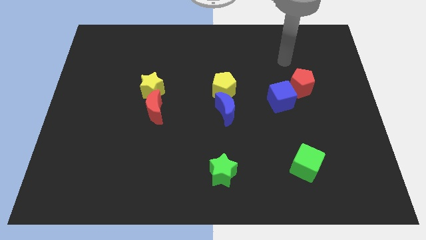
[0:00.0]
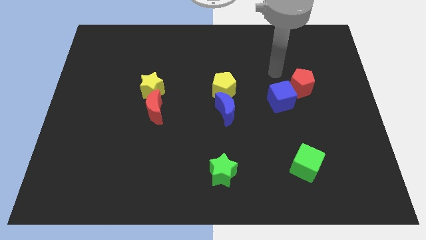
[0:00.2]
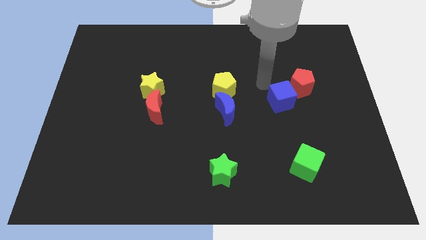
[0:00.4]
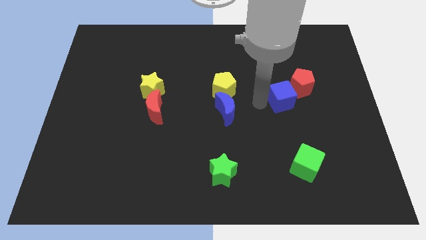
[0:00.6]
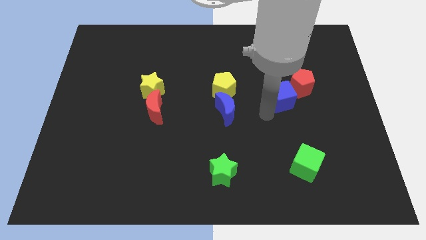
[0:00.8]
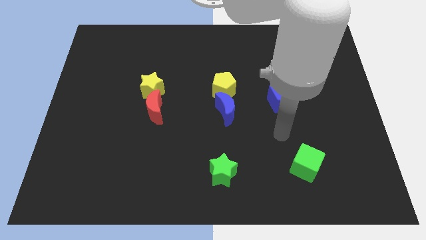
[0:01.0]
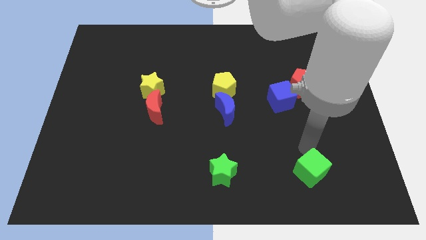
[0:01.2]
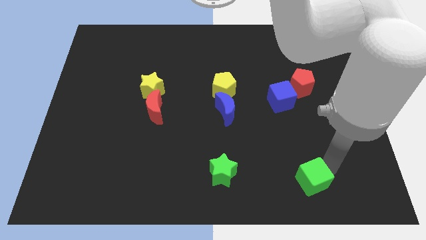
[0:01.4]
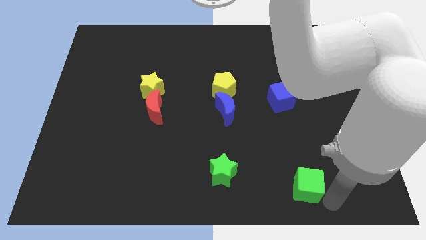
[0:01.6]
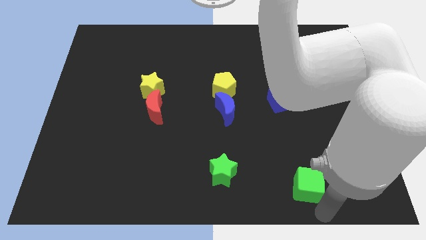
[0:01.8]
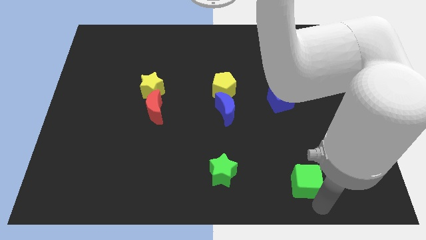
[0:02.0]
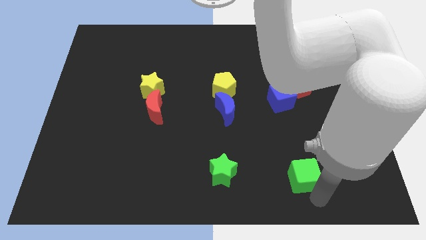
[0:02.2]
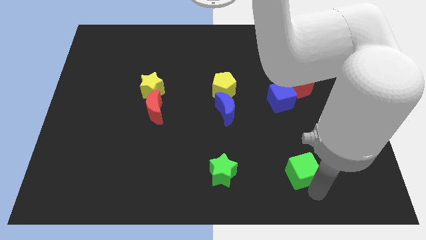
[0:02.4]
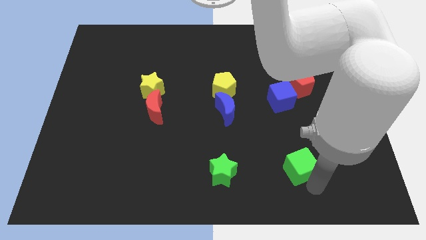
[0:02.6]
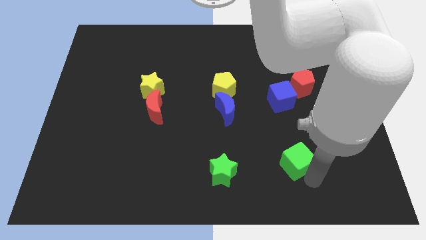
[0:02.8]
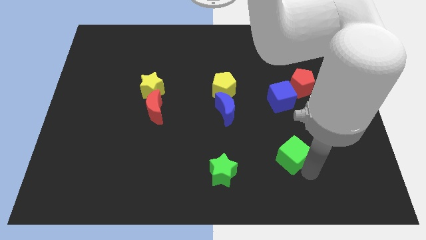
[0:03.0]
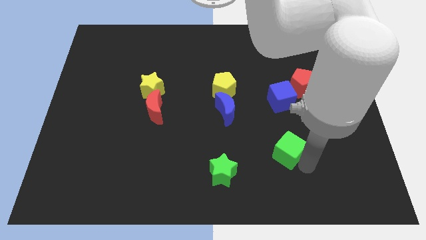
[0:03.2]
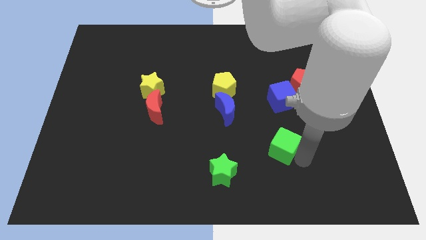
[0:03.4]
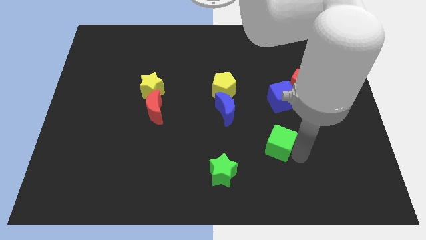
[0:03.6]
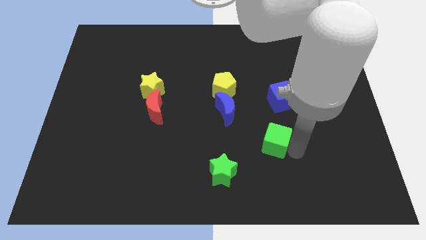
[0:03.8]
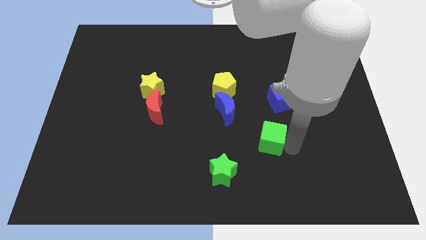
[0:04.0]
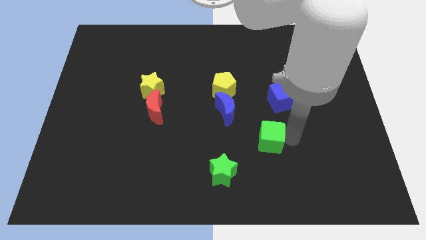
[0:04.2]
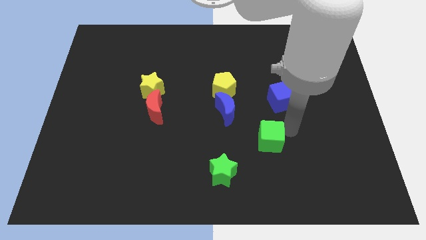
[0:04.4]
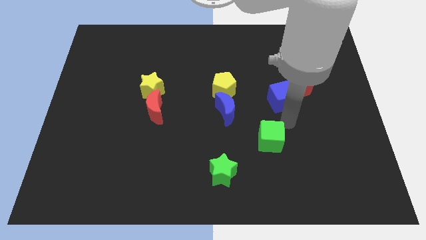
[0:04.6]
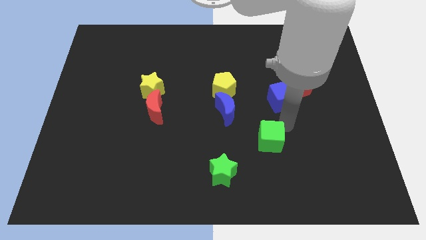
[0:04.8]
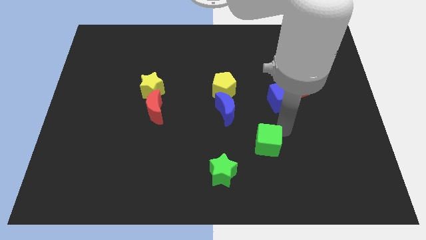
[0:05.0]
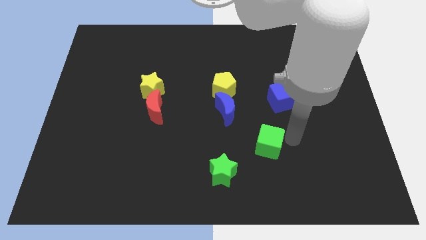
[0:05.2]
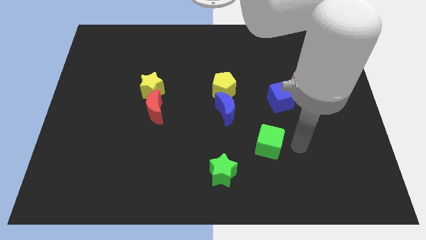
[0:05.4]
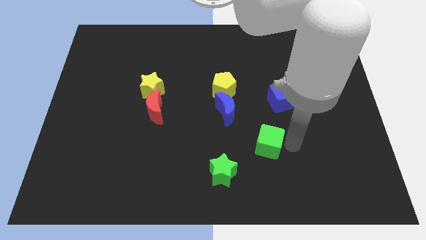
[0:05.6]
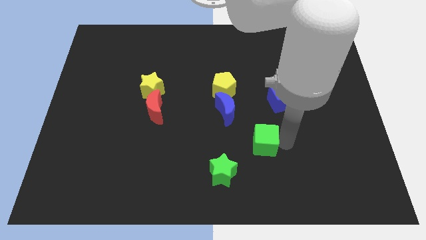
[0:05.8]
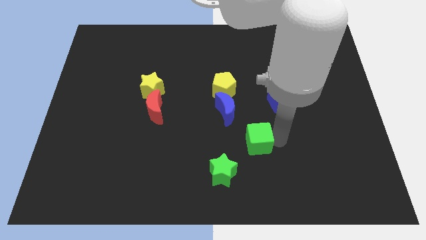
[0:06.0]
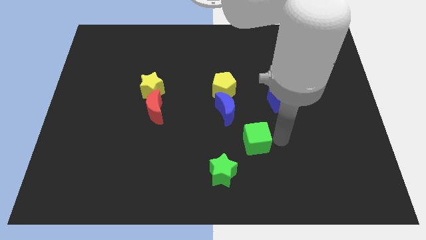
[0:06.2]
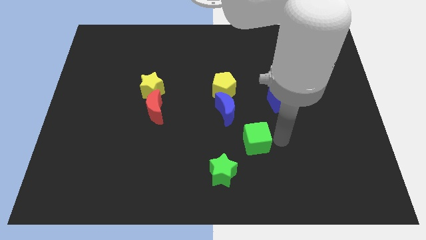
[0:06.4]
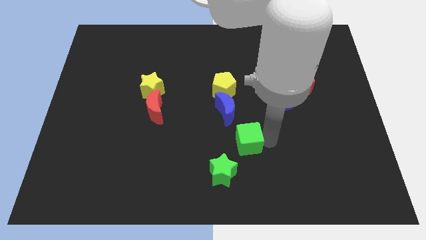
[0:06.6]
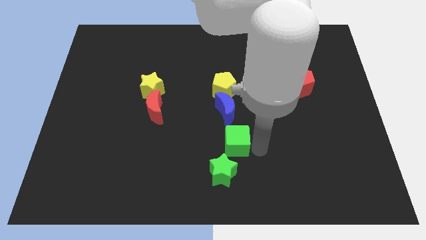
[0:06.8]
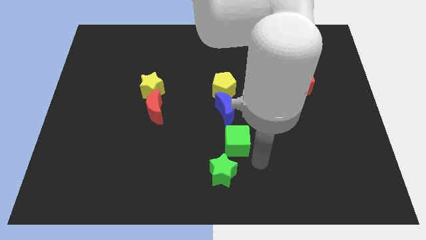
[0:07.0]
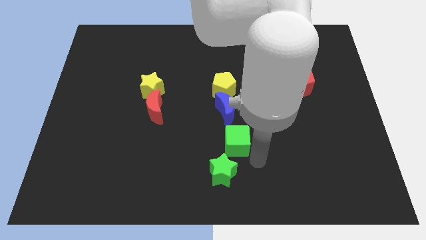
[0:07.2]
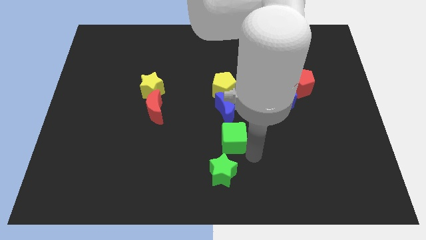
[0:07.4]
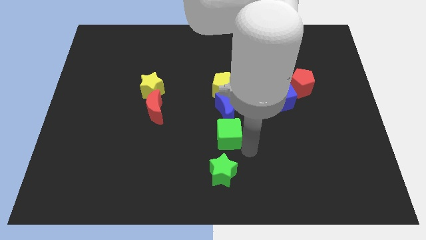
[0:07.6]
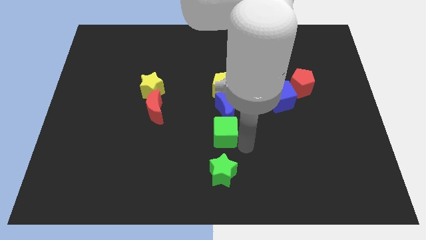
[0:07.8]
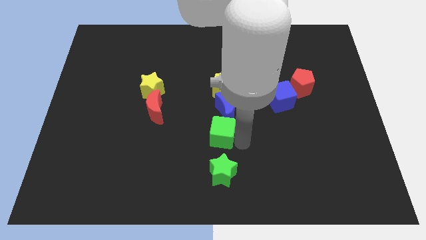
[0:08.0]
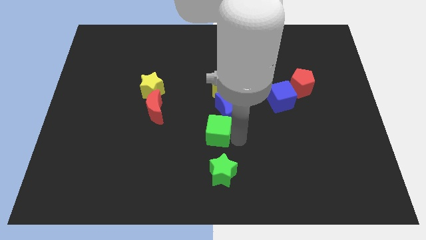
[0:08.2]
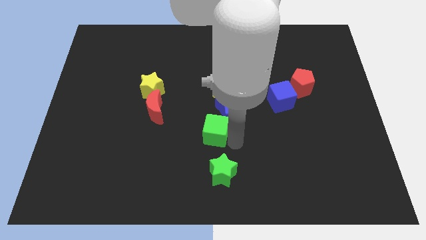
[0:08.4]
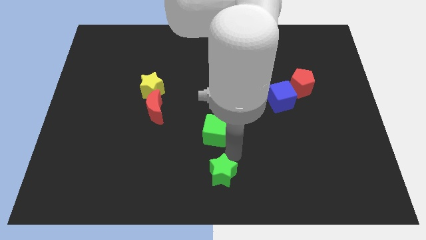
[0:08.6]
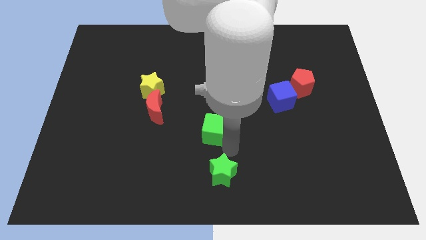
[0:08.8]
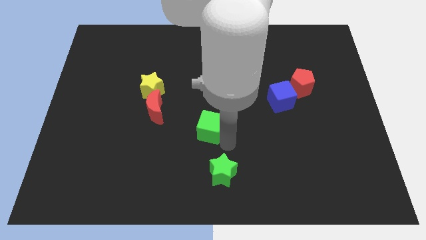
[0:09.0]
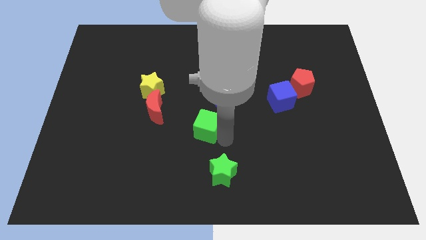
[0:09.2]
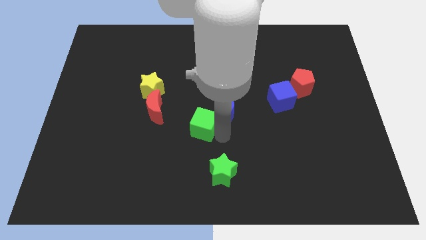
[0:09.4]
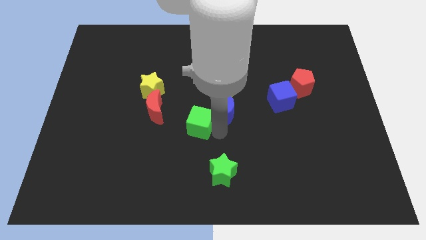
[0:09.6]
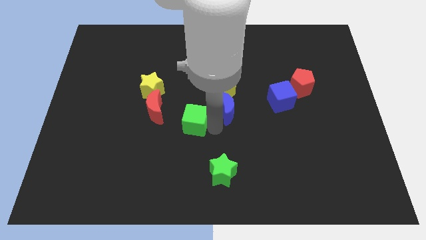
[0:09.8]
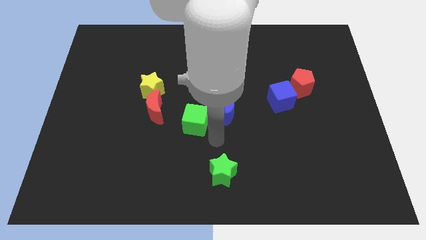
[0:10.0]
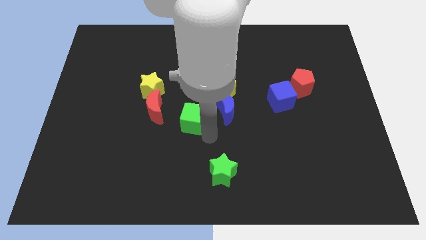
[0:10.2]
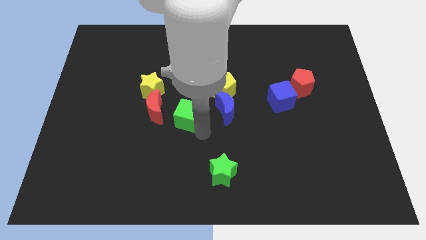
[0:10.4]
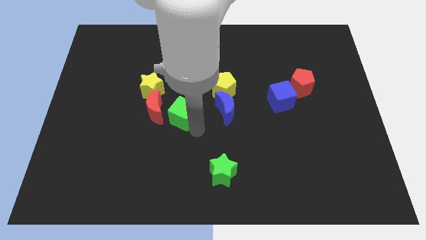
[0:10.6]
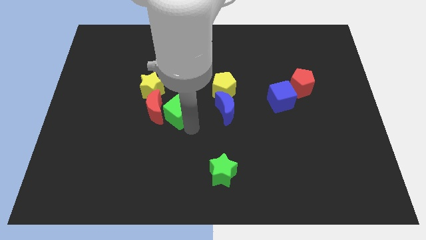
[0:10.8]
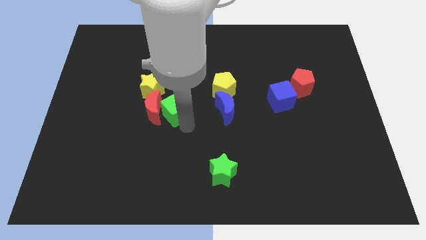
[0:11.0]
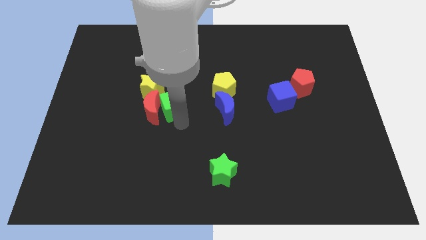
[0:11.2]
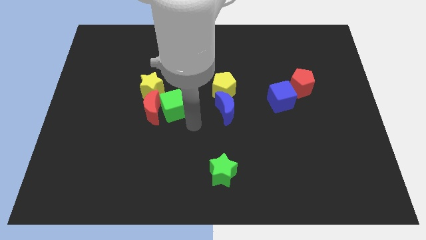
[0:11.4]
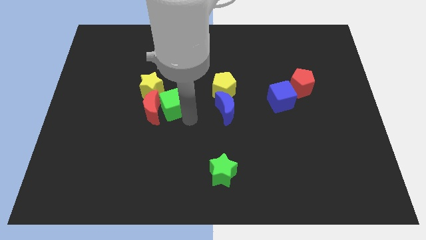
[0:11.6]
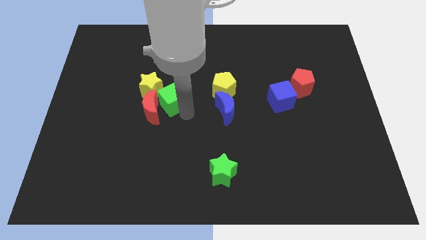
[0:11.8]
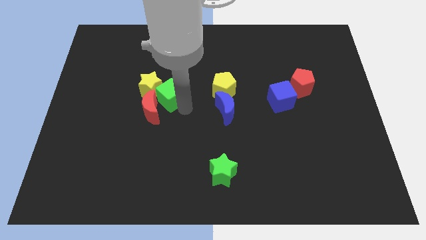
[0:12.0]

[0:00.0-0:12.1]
push the green cube close to the yellow star

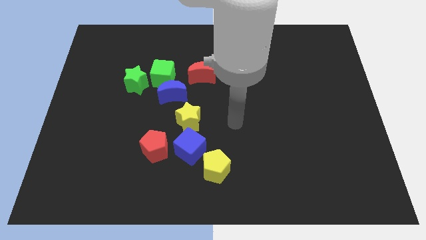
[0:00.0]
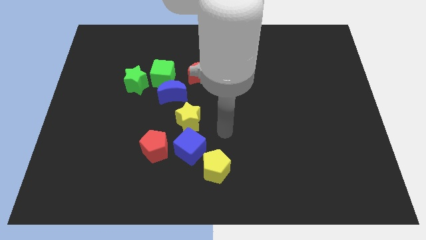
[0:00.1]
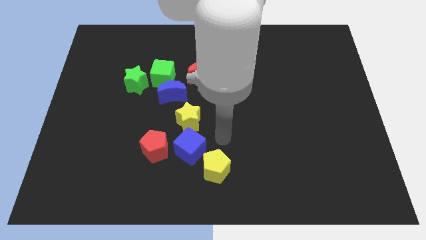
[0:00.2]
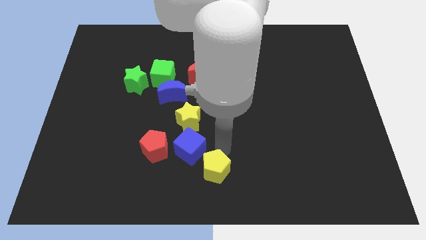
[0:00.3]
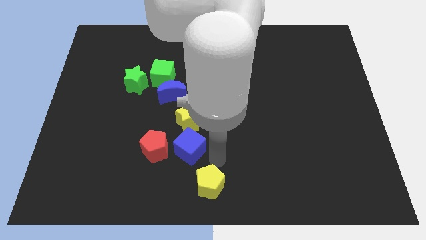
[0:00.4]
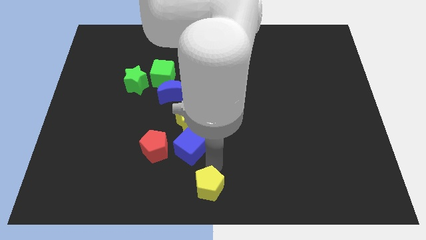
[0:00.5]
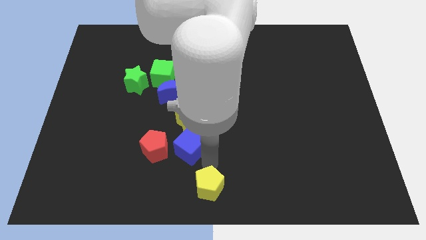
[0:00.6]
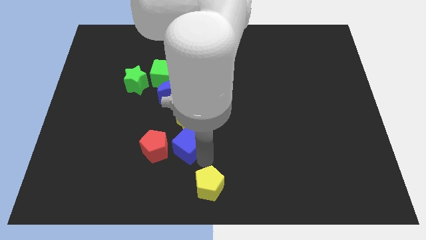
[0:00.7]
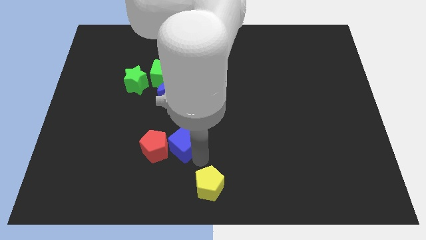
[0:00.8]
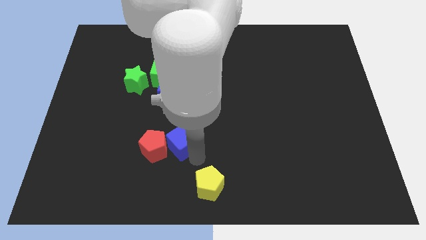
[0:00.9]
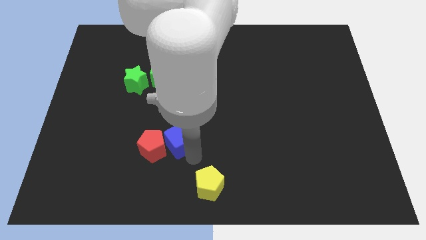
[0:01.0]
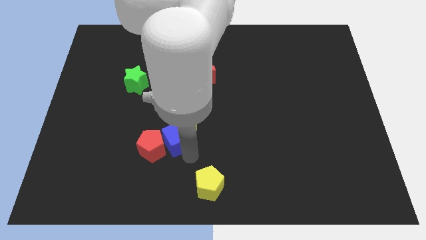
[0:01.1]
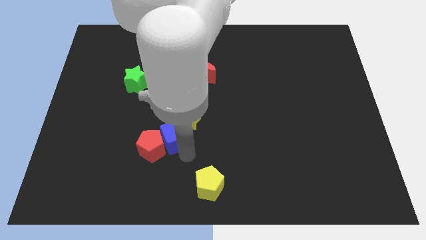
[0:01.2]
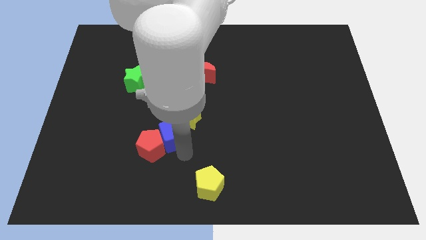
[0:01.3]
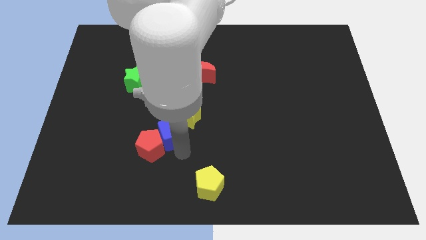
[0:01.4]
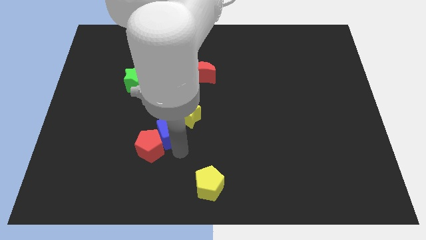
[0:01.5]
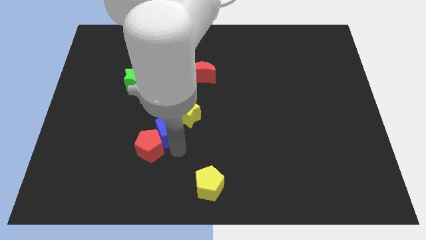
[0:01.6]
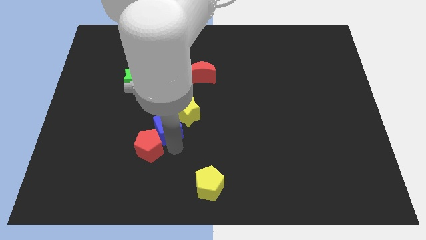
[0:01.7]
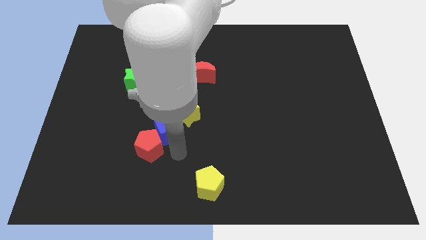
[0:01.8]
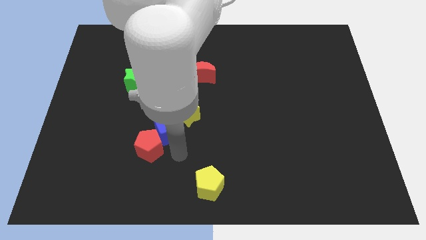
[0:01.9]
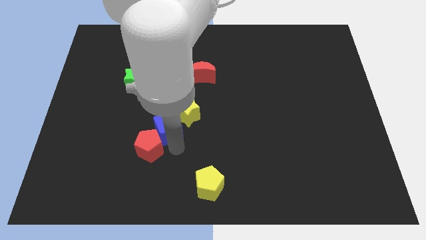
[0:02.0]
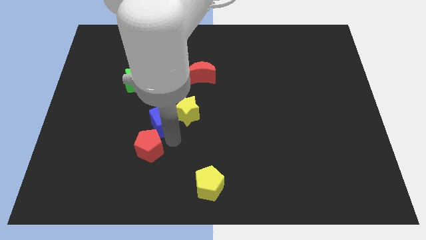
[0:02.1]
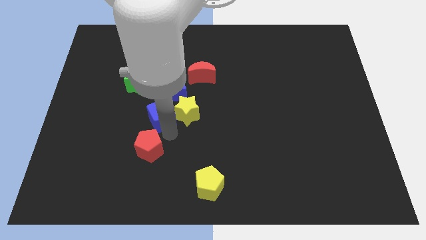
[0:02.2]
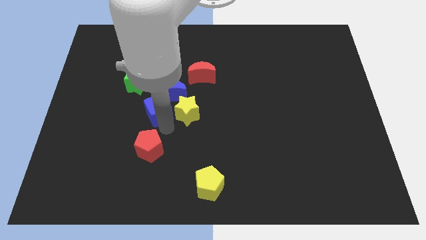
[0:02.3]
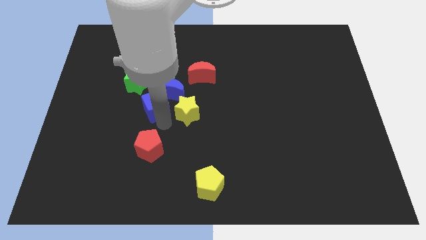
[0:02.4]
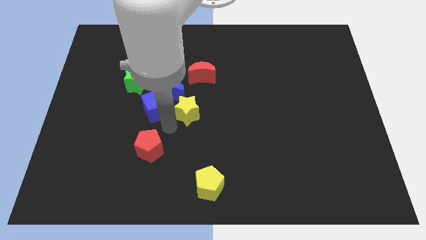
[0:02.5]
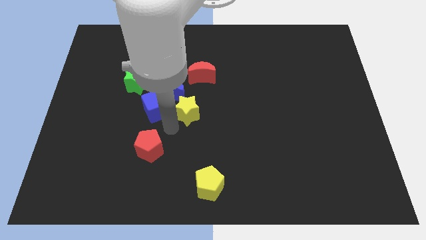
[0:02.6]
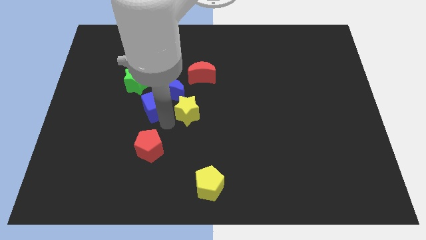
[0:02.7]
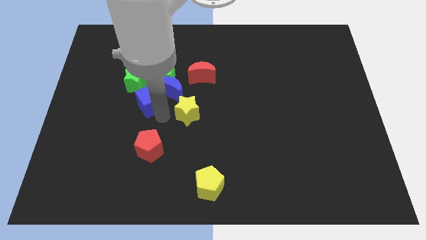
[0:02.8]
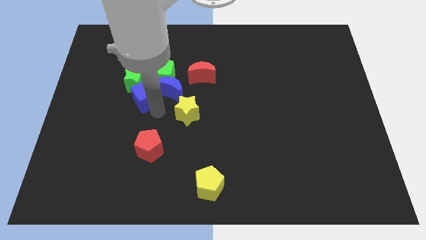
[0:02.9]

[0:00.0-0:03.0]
push the blue cube next to the green star
